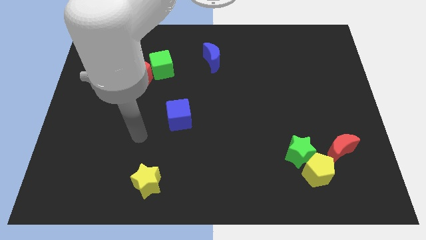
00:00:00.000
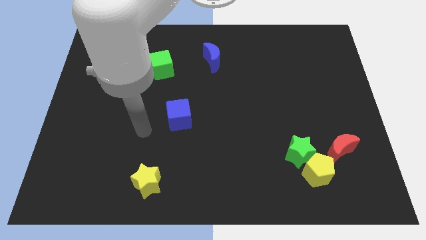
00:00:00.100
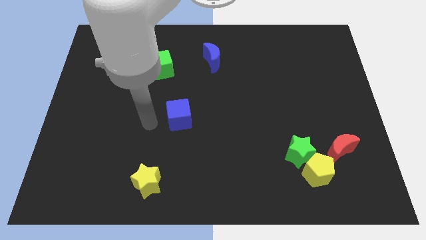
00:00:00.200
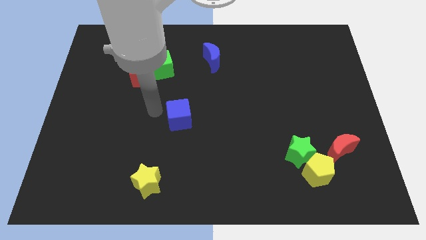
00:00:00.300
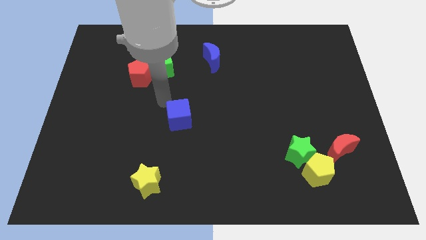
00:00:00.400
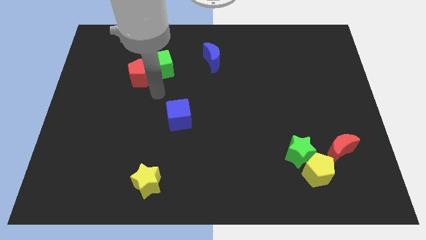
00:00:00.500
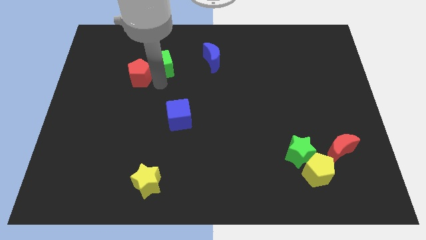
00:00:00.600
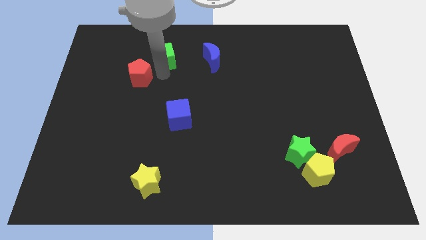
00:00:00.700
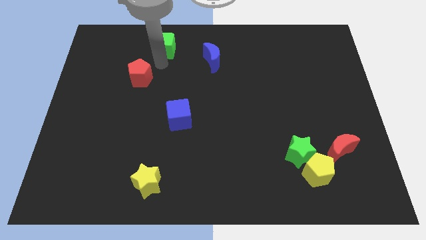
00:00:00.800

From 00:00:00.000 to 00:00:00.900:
separate the red pentagon from the green cube

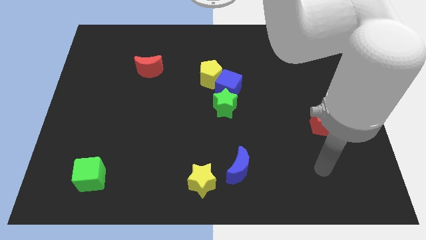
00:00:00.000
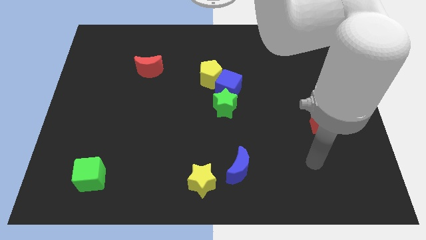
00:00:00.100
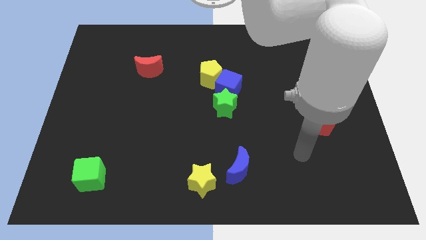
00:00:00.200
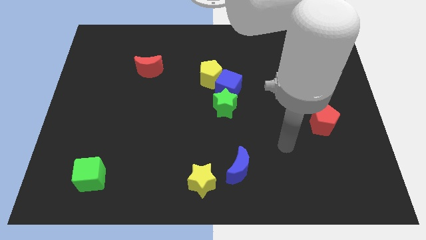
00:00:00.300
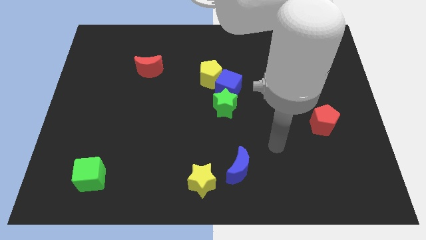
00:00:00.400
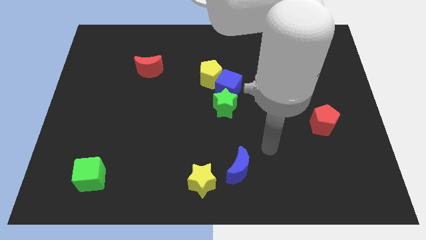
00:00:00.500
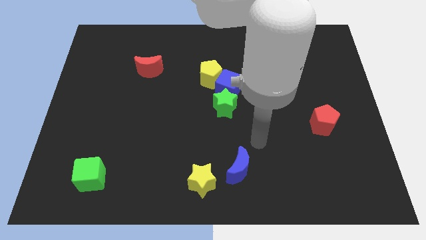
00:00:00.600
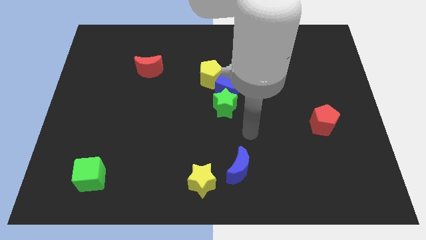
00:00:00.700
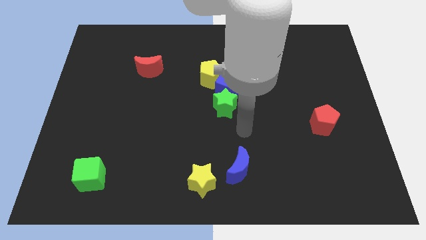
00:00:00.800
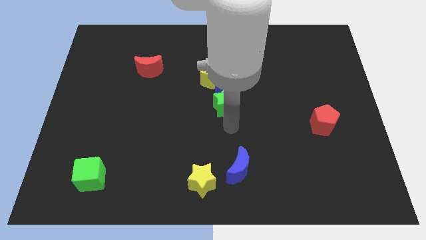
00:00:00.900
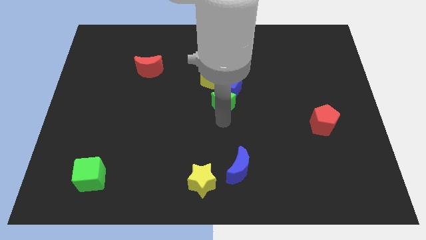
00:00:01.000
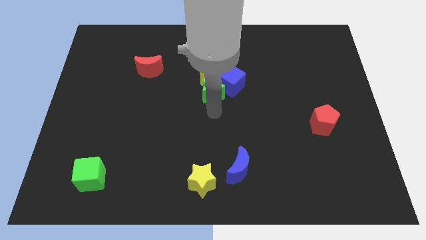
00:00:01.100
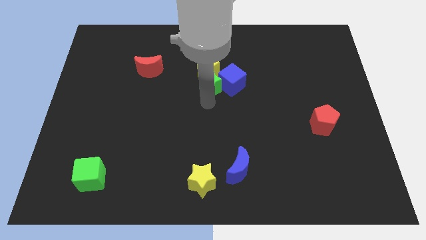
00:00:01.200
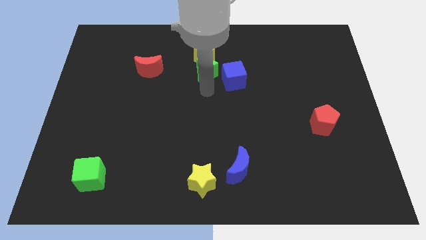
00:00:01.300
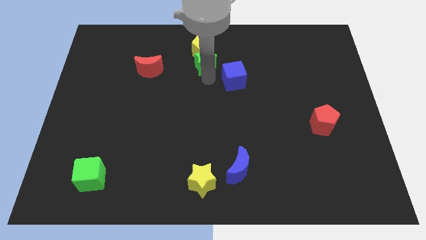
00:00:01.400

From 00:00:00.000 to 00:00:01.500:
pull the blue cube apart from the yellow pentagon and green star

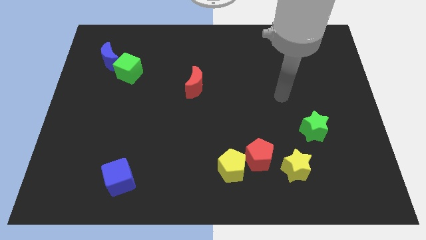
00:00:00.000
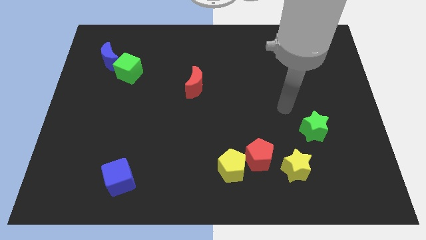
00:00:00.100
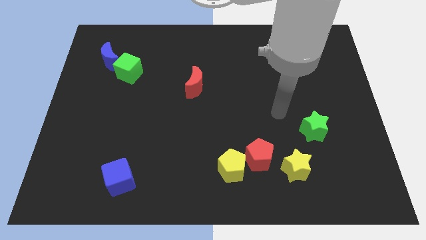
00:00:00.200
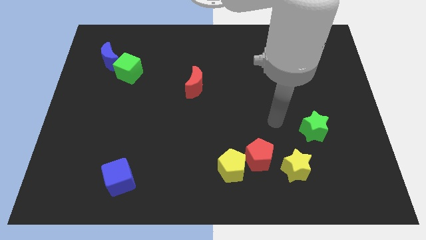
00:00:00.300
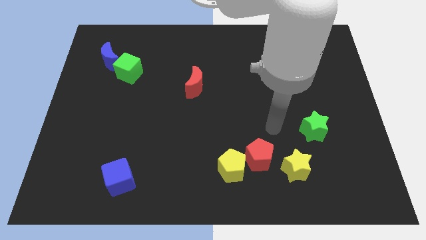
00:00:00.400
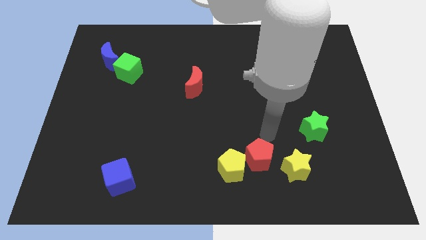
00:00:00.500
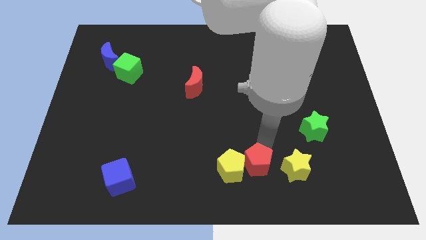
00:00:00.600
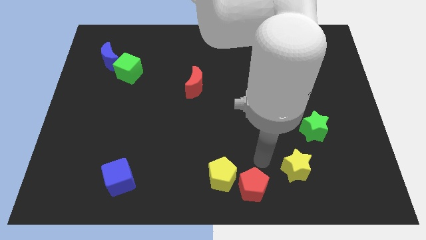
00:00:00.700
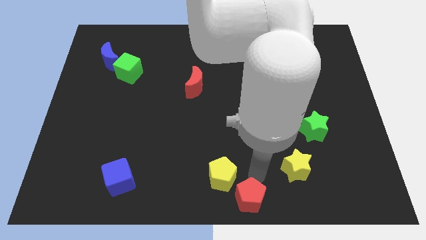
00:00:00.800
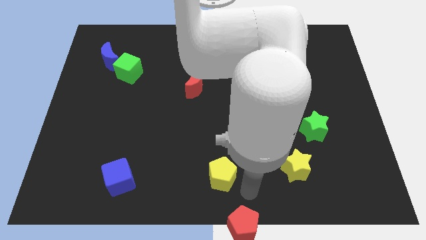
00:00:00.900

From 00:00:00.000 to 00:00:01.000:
pull the yellow pentagon apart from the red pentagon

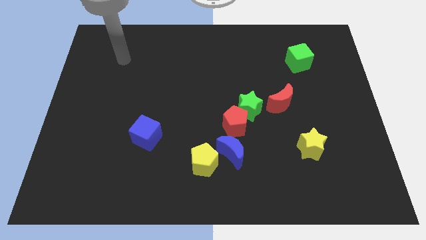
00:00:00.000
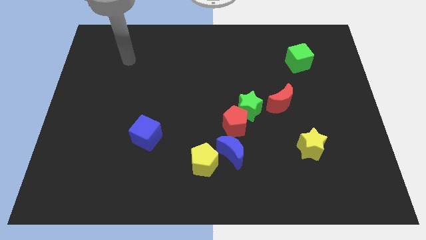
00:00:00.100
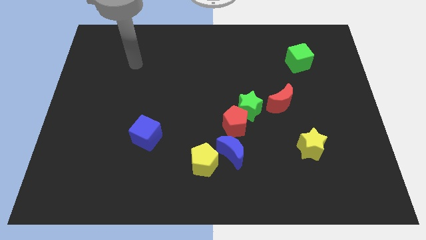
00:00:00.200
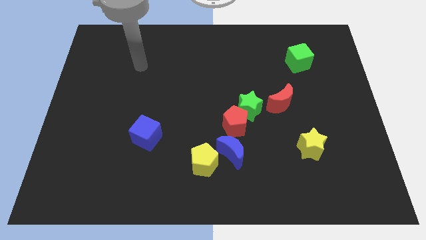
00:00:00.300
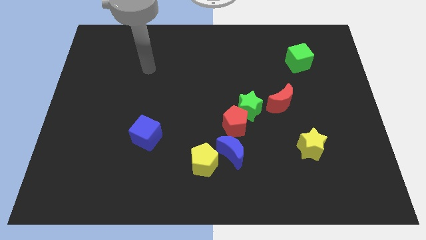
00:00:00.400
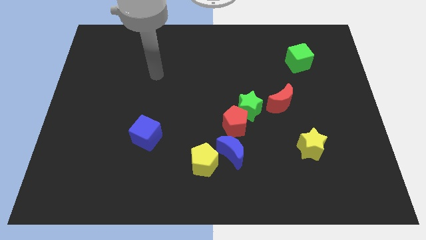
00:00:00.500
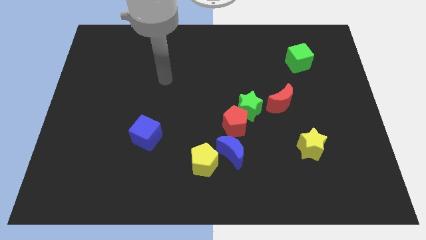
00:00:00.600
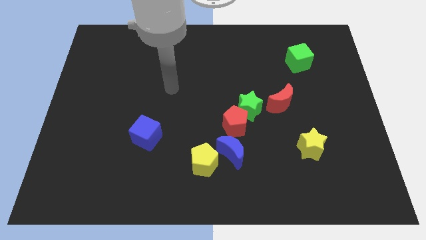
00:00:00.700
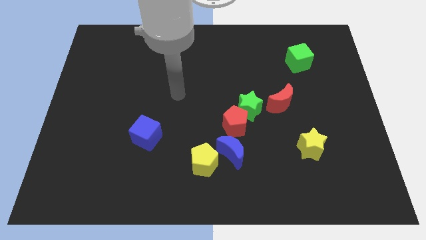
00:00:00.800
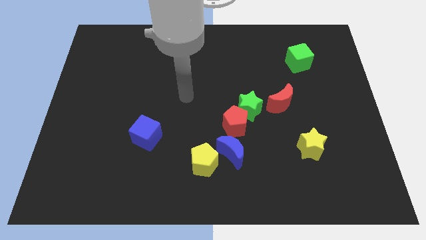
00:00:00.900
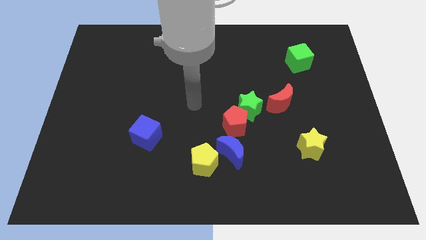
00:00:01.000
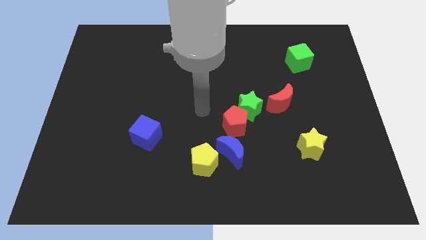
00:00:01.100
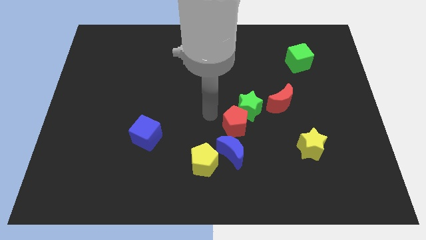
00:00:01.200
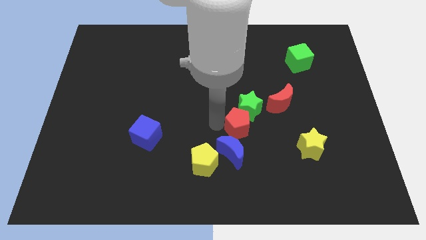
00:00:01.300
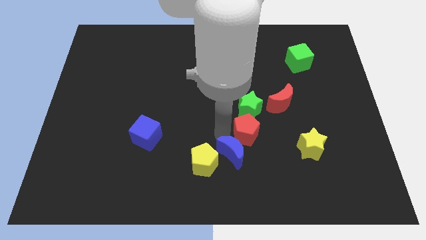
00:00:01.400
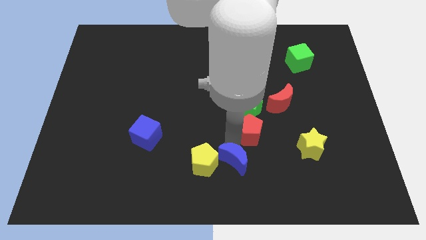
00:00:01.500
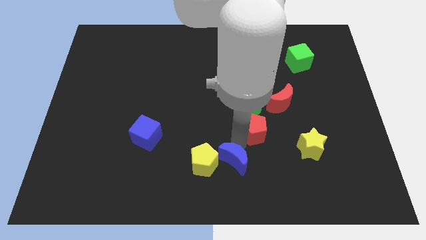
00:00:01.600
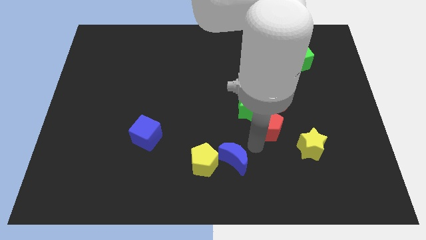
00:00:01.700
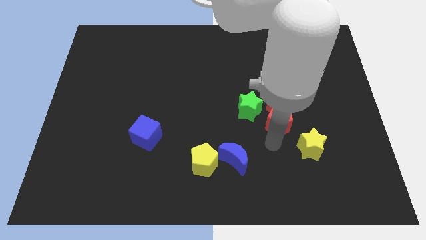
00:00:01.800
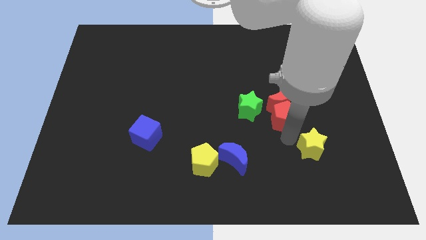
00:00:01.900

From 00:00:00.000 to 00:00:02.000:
move the red pentagon away from the green star and blue moon

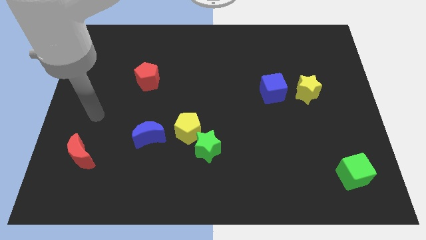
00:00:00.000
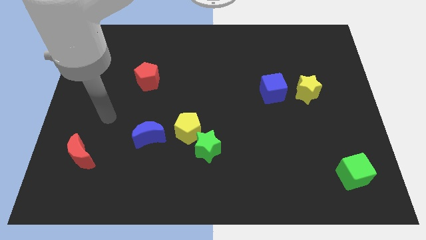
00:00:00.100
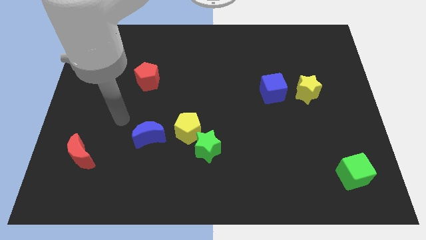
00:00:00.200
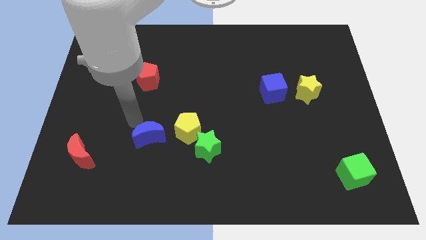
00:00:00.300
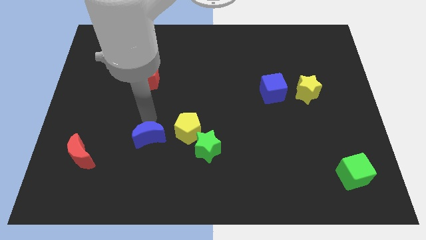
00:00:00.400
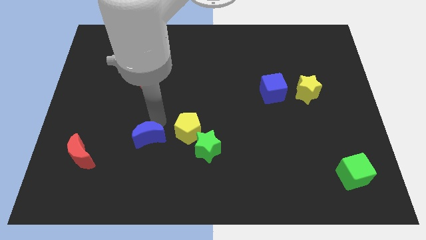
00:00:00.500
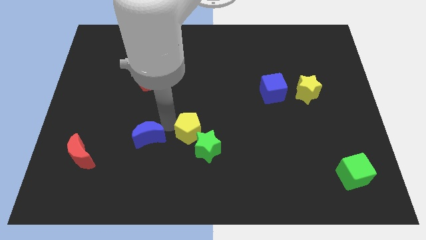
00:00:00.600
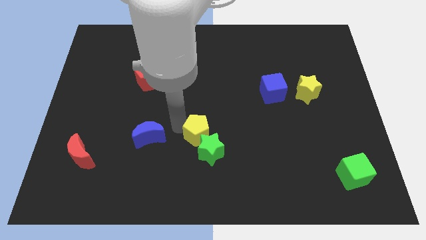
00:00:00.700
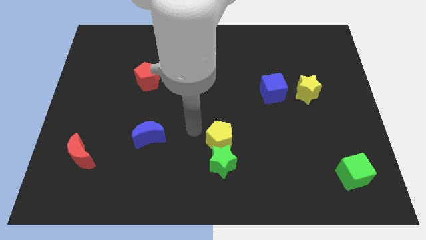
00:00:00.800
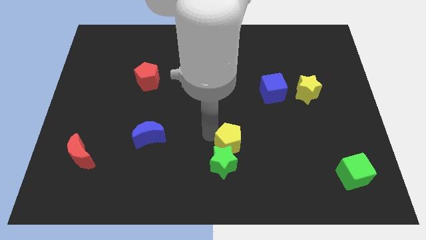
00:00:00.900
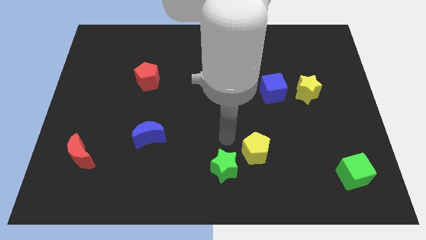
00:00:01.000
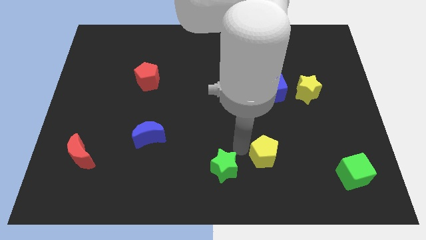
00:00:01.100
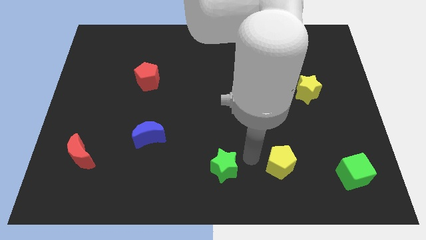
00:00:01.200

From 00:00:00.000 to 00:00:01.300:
pull the green star apart from the yellow pentagon

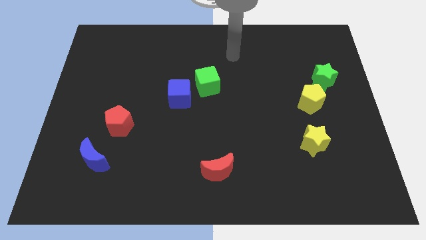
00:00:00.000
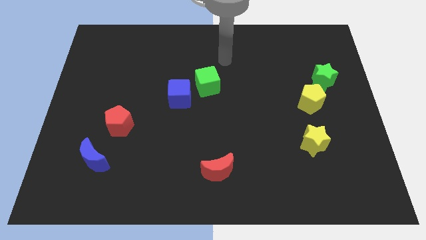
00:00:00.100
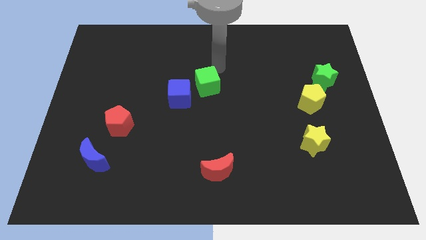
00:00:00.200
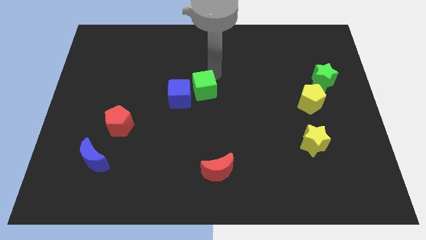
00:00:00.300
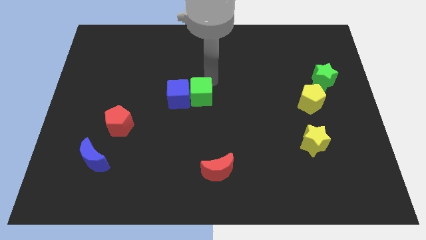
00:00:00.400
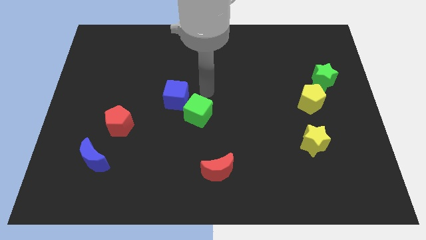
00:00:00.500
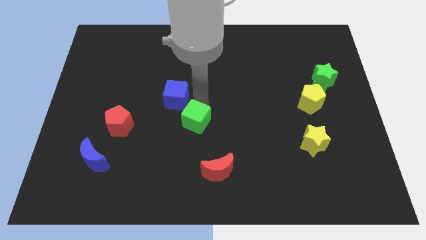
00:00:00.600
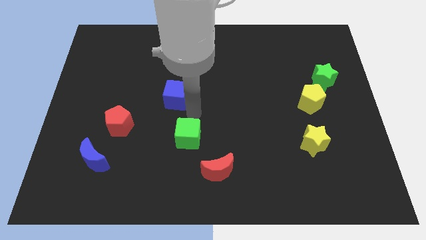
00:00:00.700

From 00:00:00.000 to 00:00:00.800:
move the blue cube away from the green cube

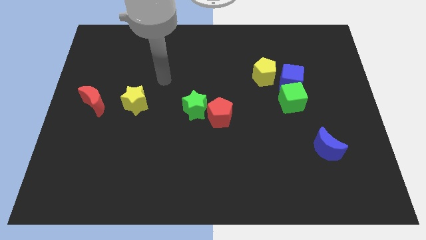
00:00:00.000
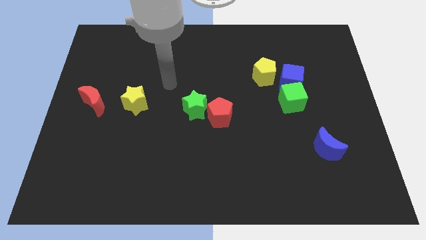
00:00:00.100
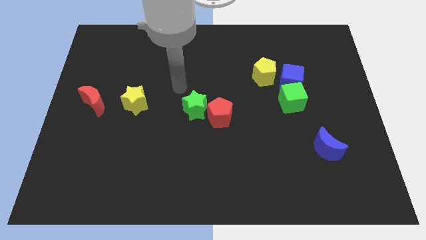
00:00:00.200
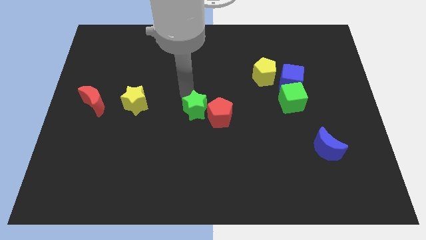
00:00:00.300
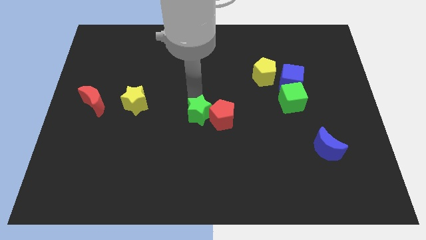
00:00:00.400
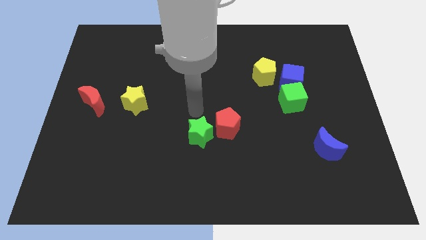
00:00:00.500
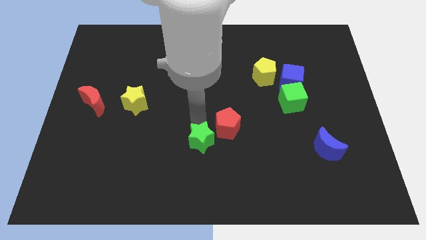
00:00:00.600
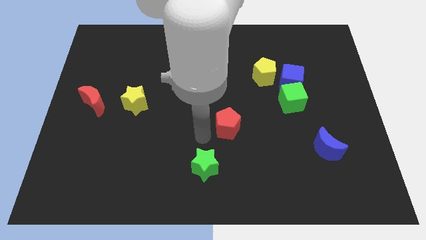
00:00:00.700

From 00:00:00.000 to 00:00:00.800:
pull the red pentagon apart from the green star

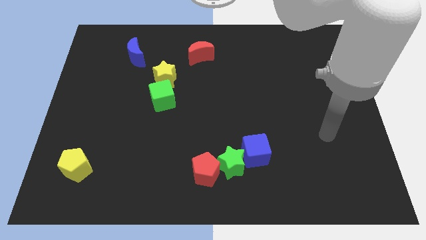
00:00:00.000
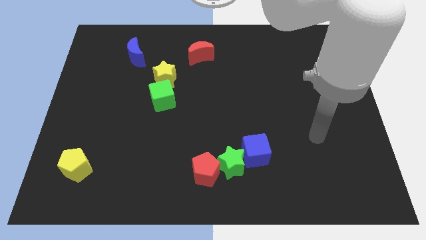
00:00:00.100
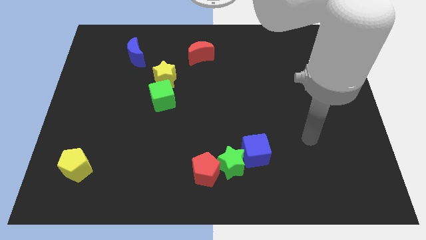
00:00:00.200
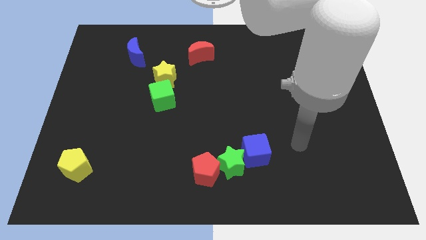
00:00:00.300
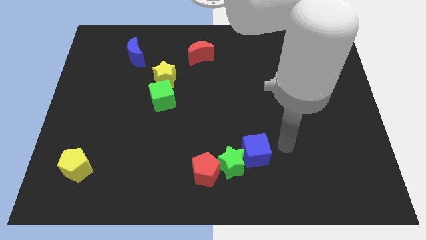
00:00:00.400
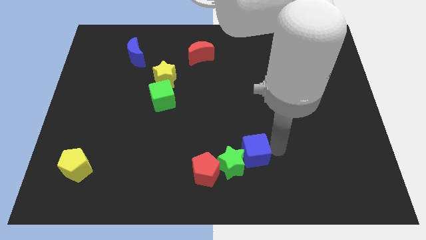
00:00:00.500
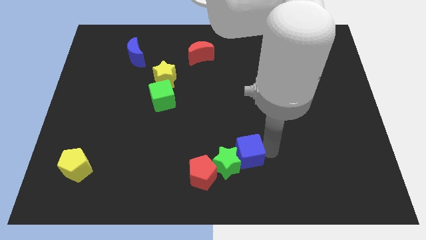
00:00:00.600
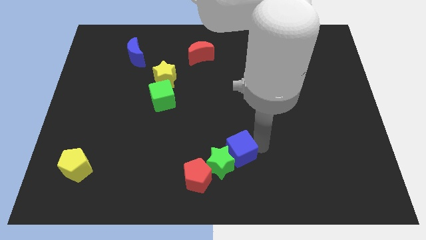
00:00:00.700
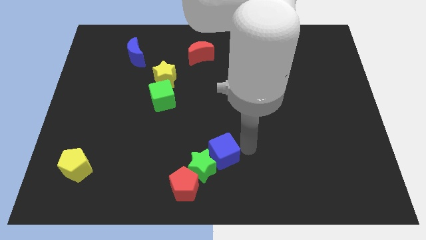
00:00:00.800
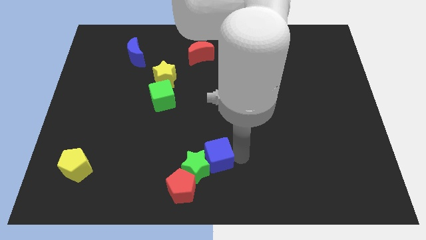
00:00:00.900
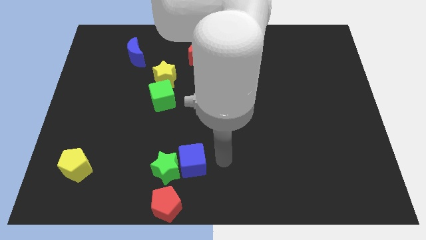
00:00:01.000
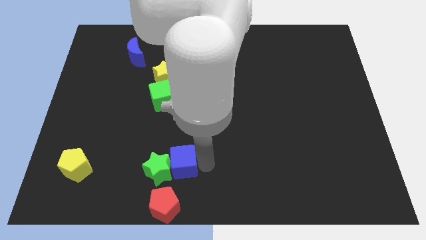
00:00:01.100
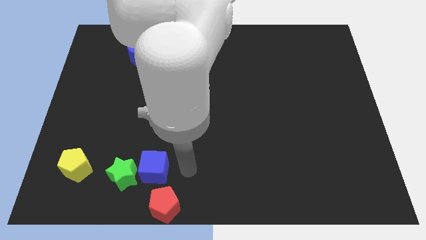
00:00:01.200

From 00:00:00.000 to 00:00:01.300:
move the red pentagon away from the green star
